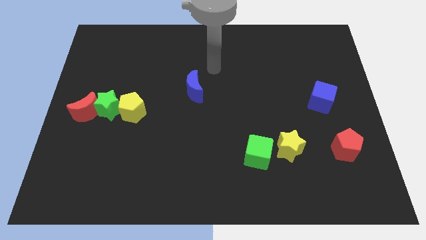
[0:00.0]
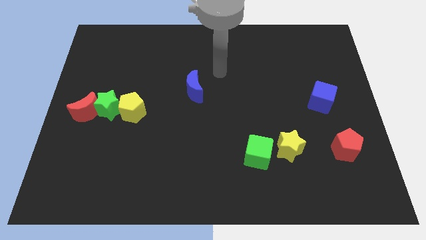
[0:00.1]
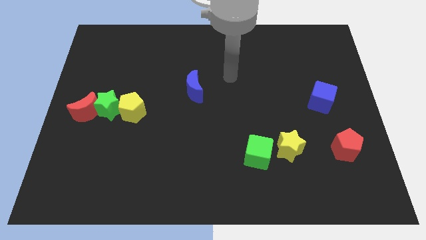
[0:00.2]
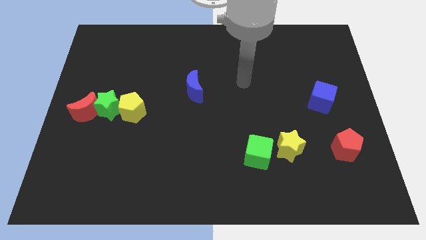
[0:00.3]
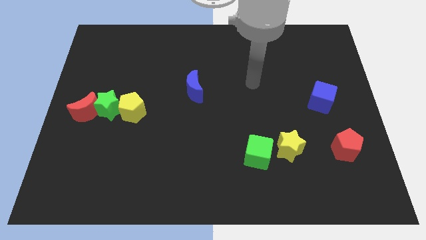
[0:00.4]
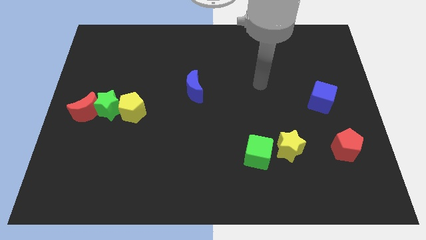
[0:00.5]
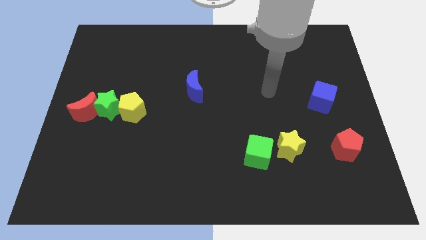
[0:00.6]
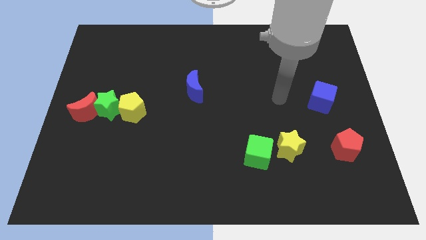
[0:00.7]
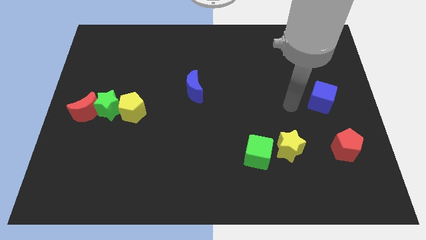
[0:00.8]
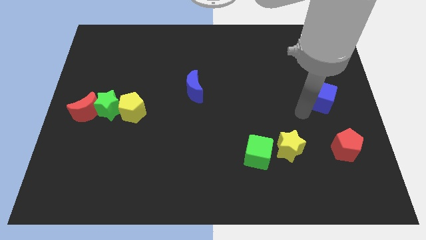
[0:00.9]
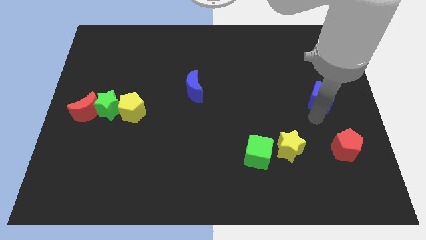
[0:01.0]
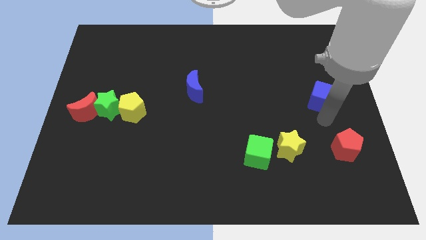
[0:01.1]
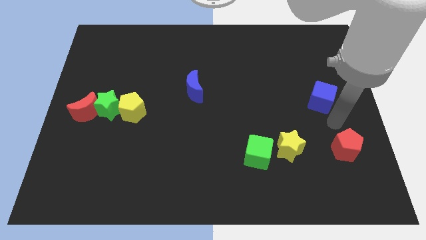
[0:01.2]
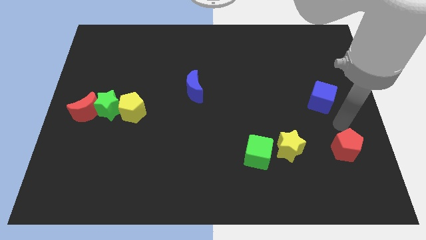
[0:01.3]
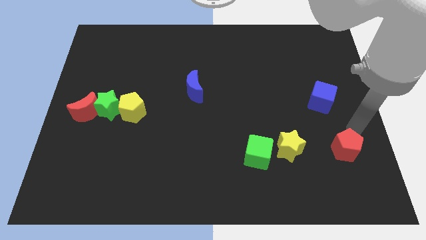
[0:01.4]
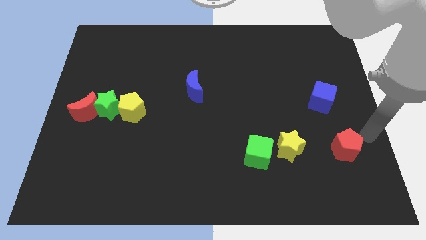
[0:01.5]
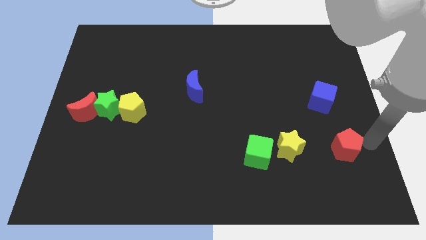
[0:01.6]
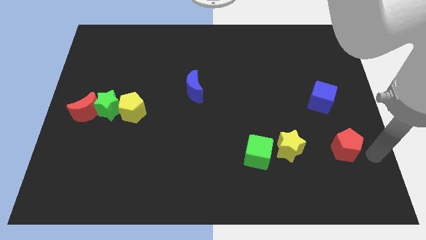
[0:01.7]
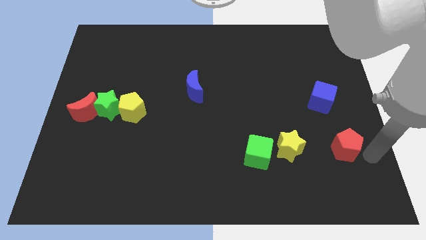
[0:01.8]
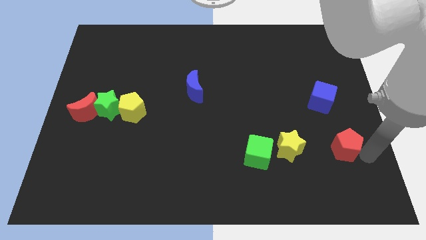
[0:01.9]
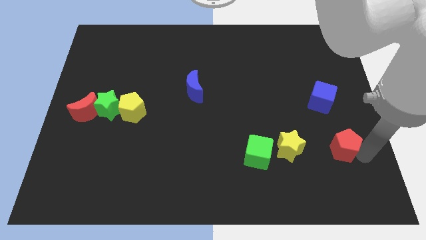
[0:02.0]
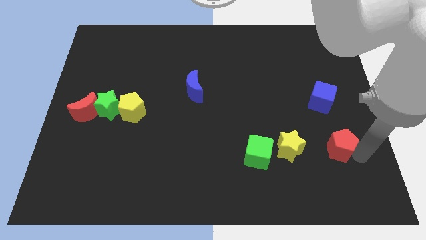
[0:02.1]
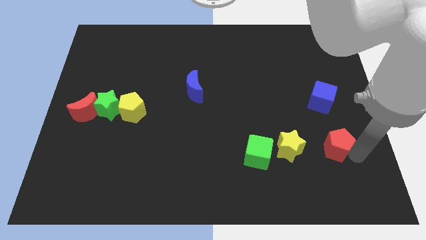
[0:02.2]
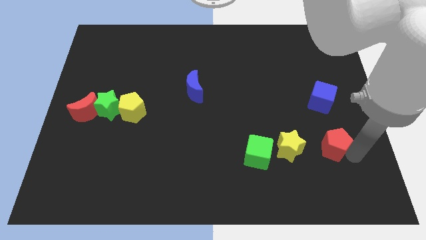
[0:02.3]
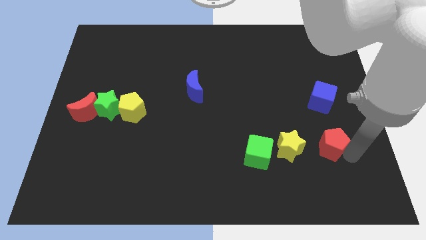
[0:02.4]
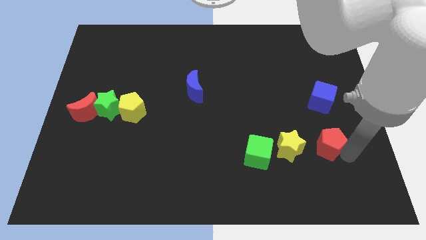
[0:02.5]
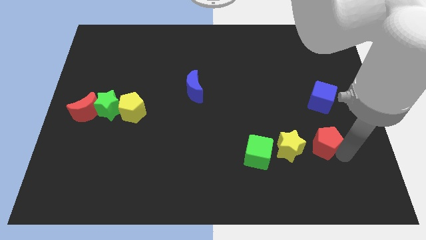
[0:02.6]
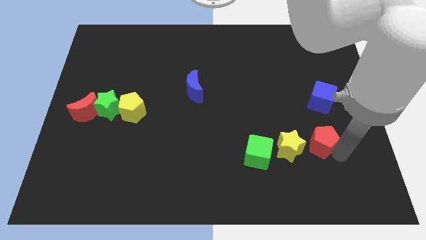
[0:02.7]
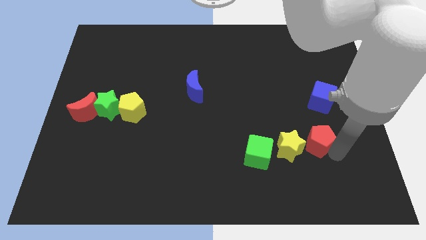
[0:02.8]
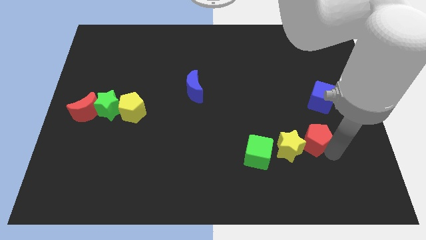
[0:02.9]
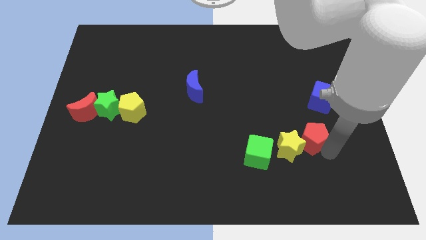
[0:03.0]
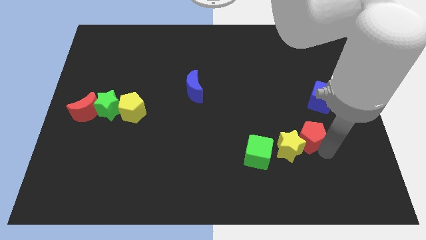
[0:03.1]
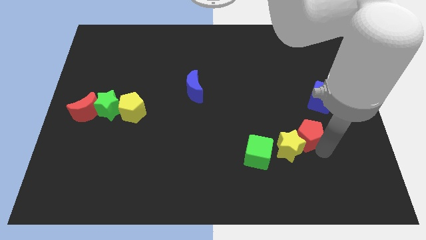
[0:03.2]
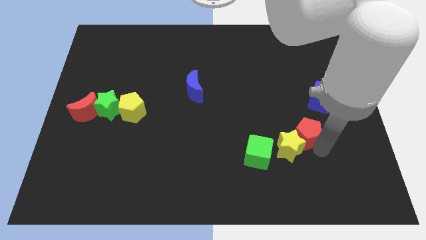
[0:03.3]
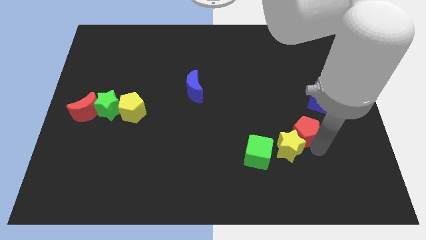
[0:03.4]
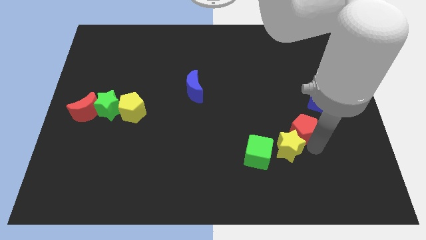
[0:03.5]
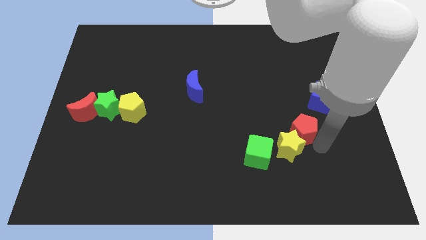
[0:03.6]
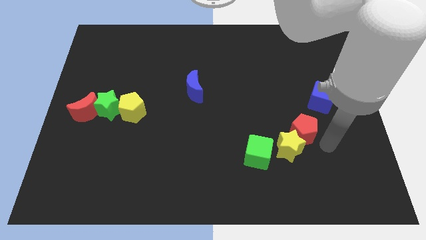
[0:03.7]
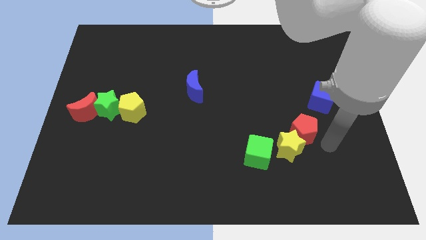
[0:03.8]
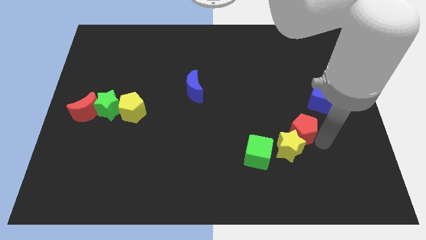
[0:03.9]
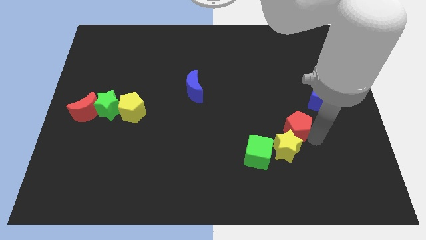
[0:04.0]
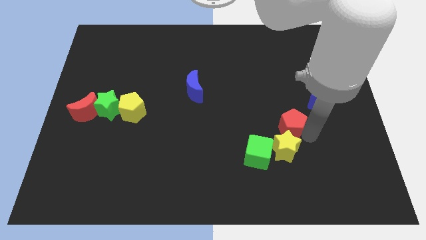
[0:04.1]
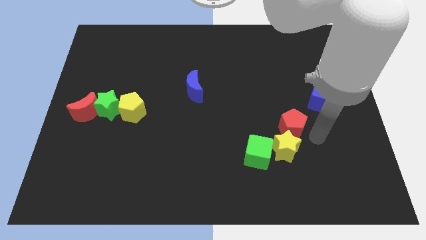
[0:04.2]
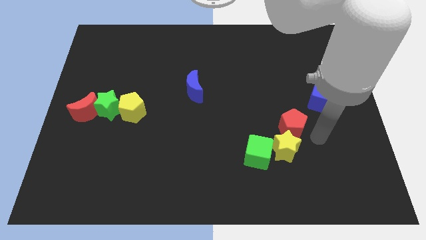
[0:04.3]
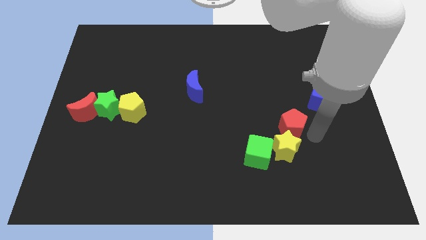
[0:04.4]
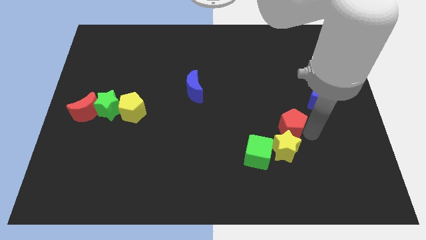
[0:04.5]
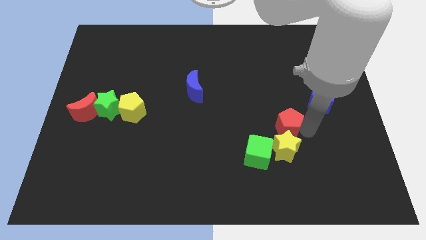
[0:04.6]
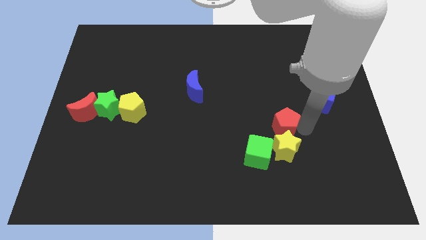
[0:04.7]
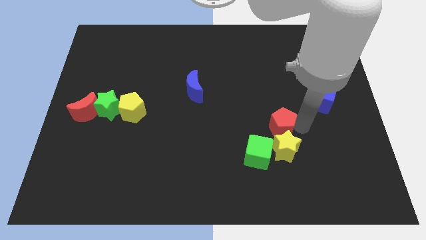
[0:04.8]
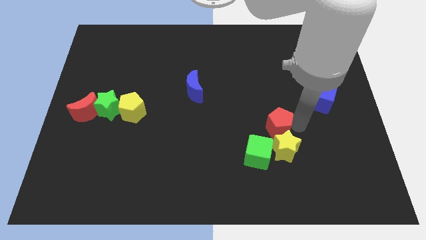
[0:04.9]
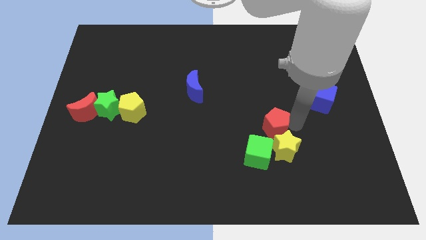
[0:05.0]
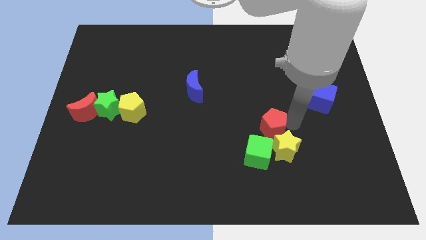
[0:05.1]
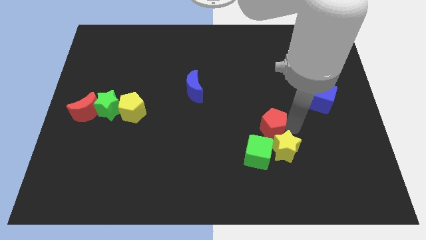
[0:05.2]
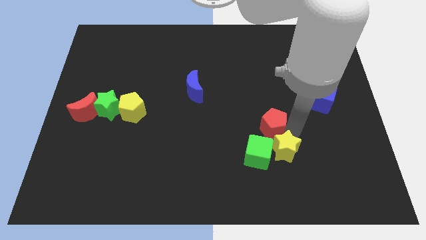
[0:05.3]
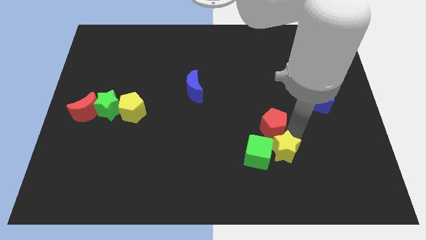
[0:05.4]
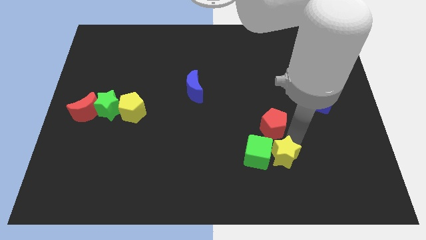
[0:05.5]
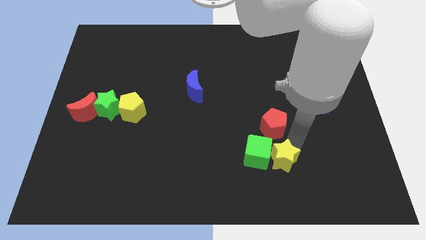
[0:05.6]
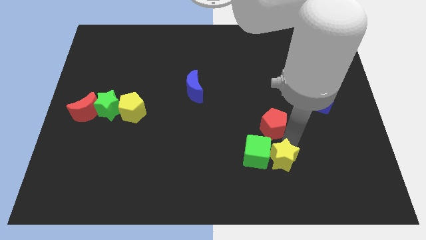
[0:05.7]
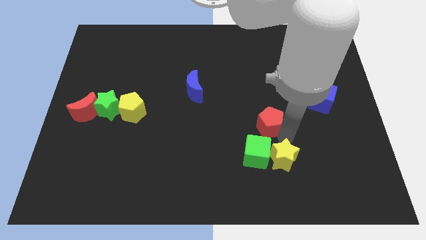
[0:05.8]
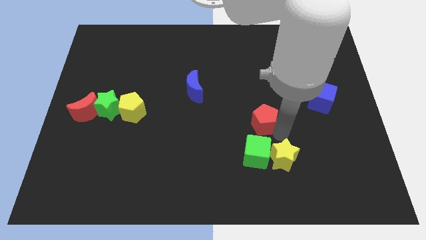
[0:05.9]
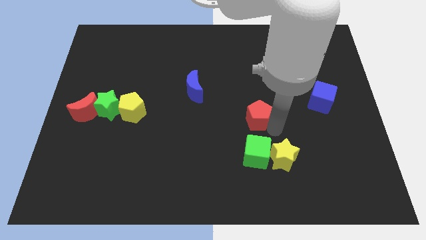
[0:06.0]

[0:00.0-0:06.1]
push the red pentagon to the middle

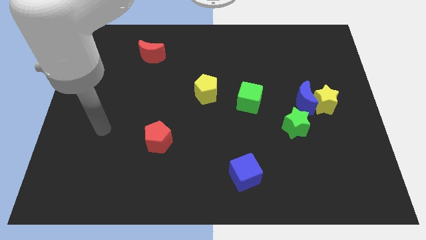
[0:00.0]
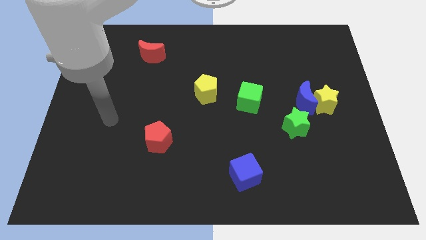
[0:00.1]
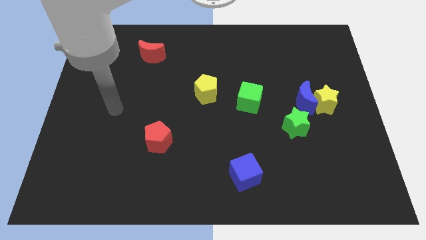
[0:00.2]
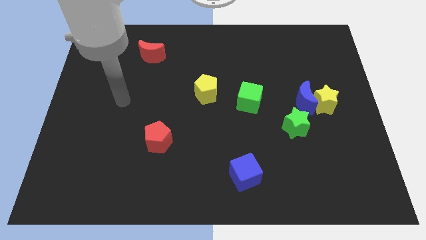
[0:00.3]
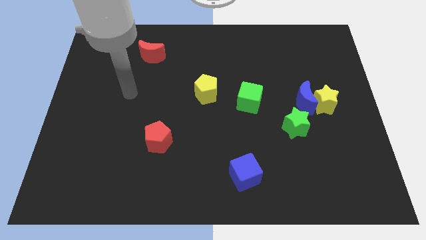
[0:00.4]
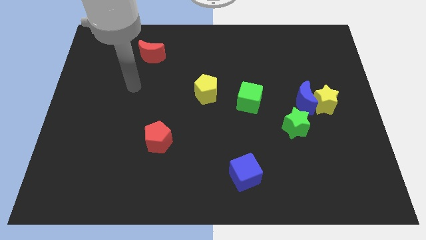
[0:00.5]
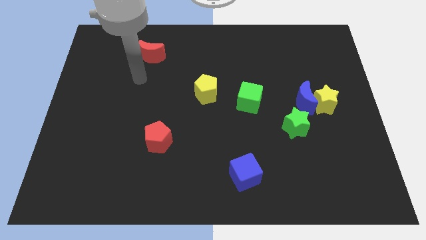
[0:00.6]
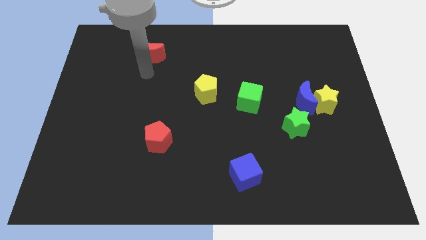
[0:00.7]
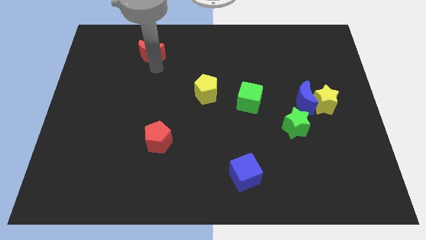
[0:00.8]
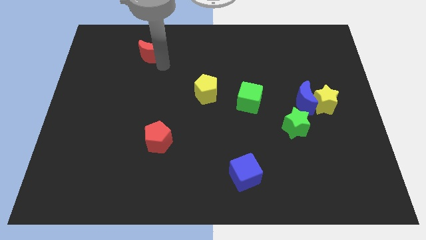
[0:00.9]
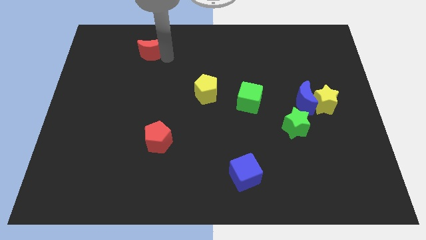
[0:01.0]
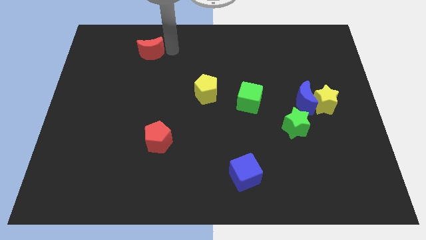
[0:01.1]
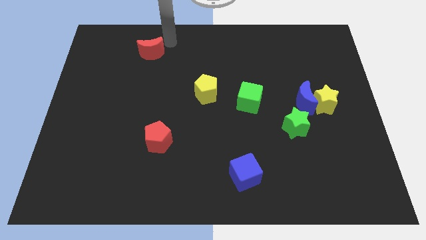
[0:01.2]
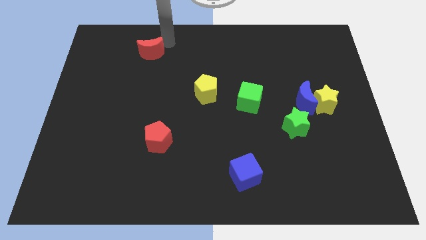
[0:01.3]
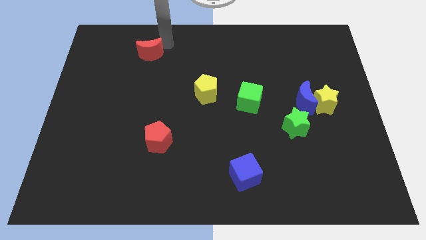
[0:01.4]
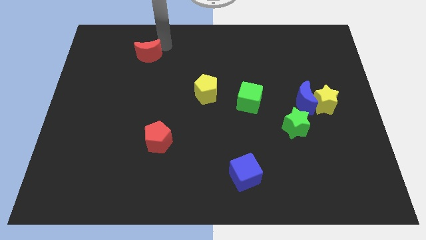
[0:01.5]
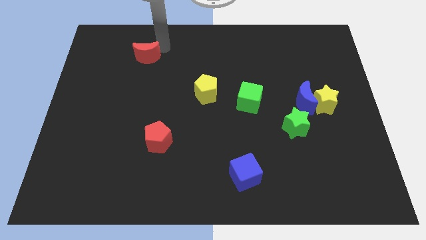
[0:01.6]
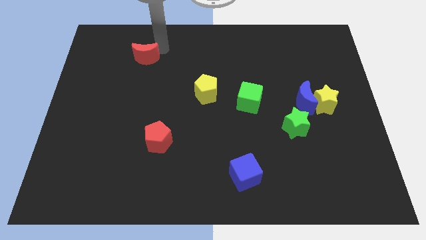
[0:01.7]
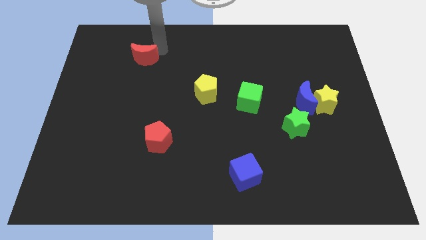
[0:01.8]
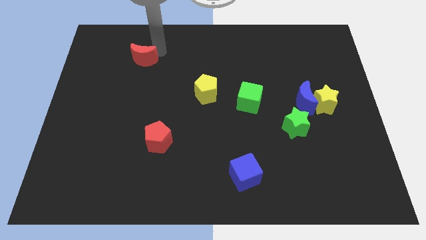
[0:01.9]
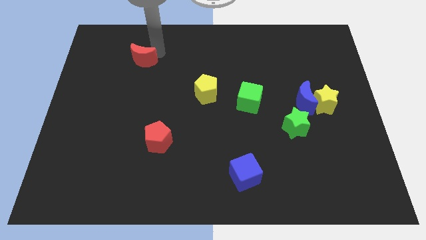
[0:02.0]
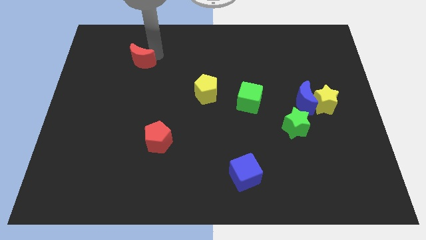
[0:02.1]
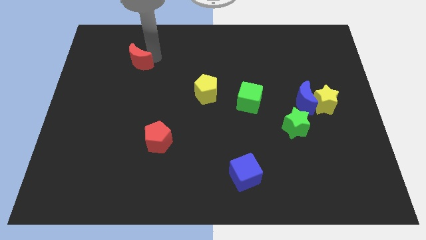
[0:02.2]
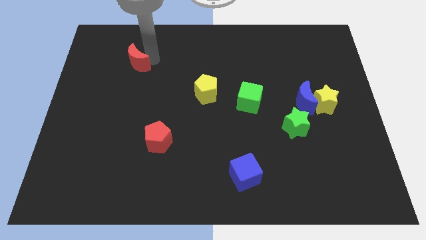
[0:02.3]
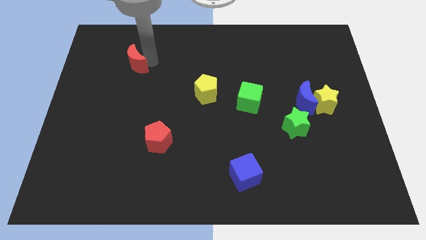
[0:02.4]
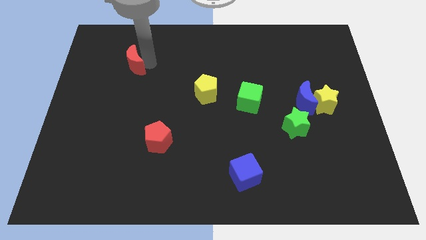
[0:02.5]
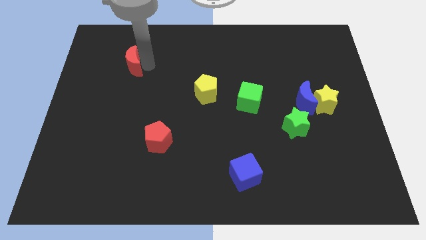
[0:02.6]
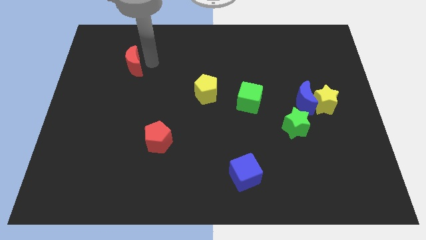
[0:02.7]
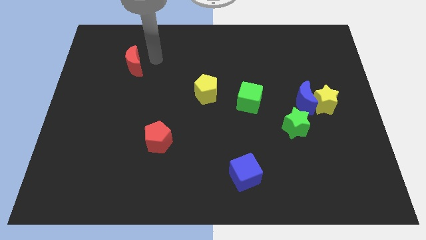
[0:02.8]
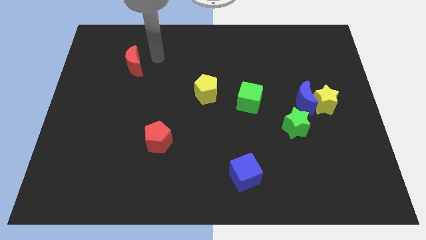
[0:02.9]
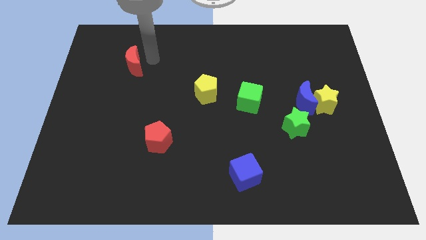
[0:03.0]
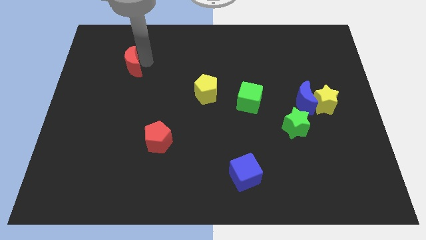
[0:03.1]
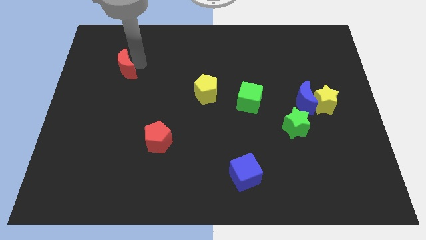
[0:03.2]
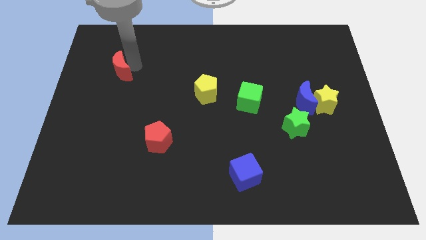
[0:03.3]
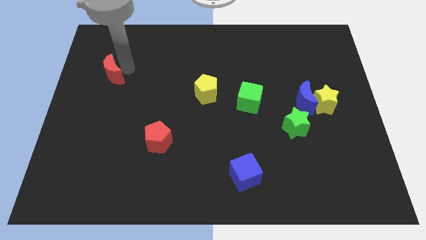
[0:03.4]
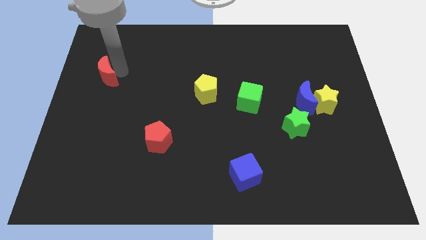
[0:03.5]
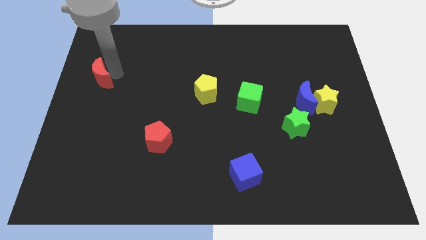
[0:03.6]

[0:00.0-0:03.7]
push the red moon to the center left
